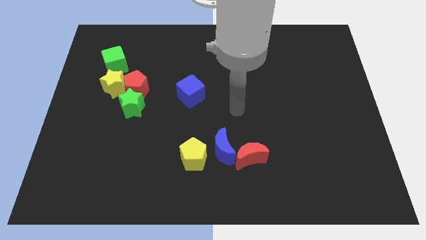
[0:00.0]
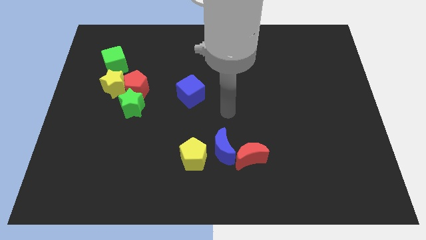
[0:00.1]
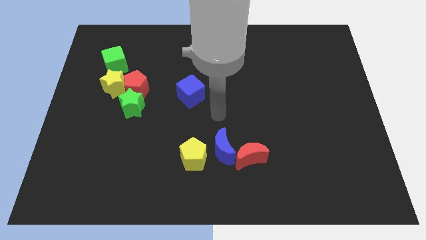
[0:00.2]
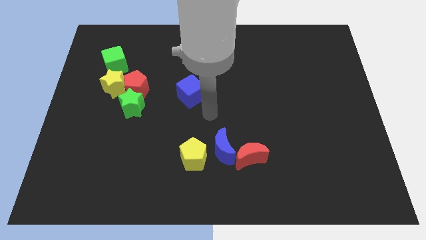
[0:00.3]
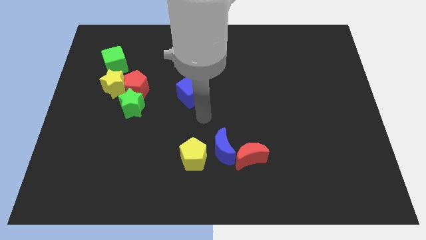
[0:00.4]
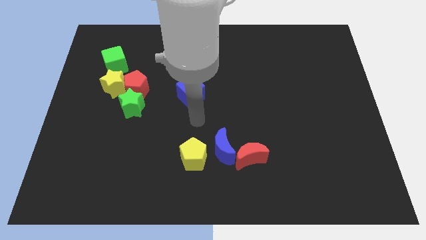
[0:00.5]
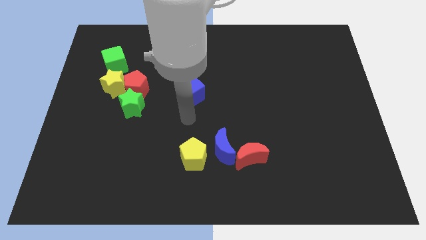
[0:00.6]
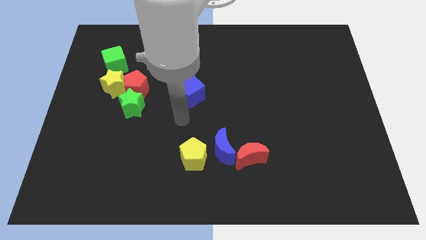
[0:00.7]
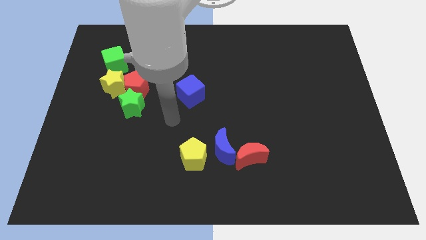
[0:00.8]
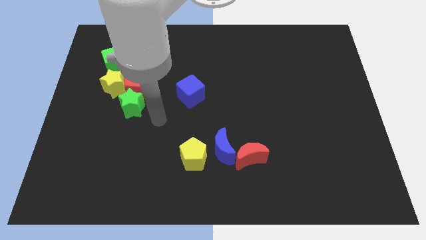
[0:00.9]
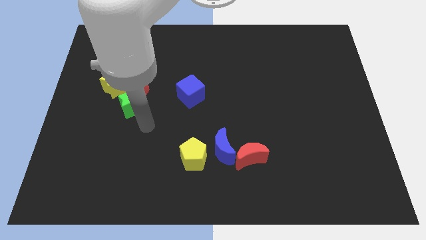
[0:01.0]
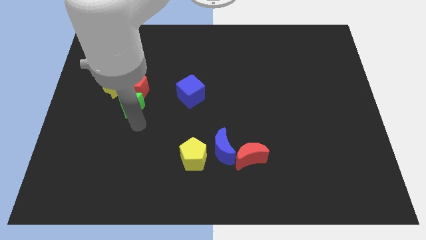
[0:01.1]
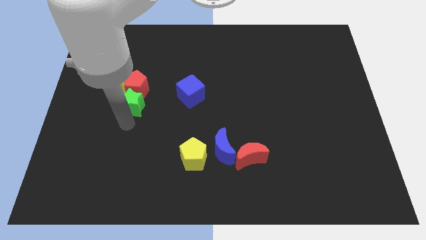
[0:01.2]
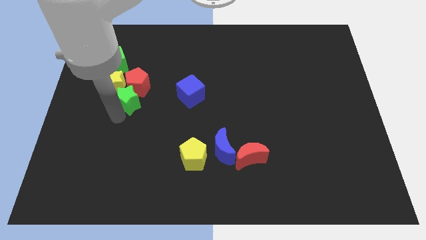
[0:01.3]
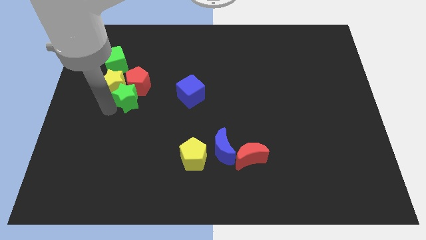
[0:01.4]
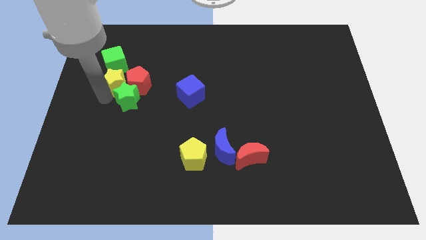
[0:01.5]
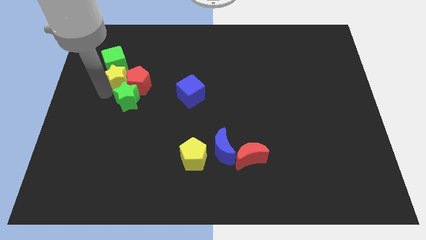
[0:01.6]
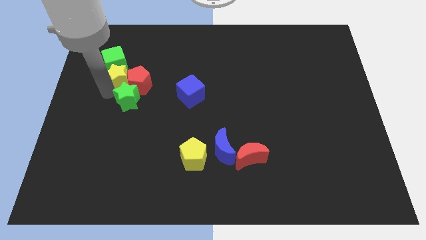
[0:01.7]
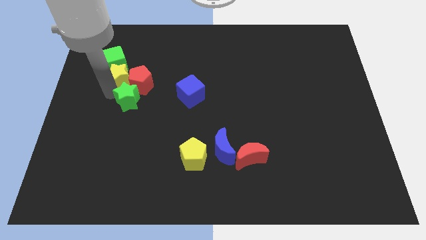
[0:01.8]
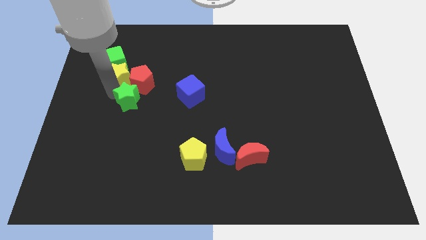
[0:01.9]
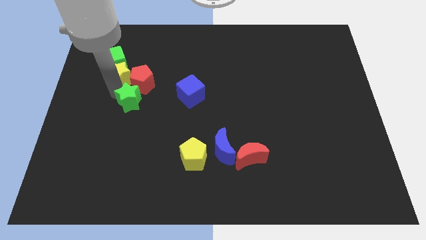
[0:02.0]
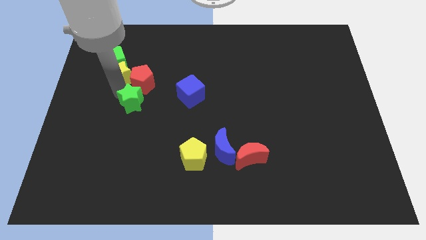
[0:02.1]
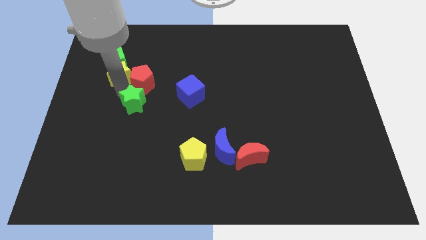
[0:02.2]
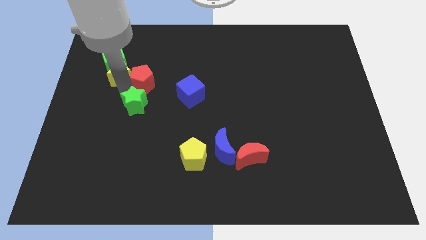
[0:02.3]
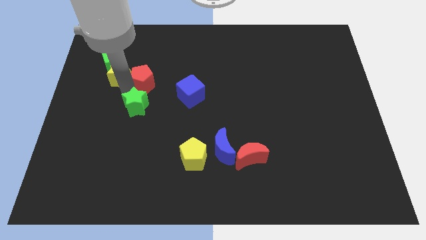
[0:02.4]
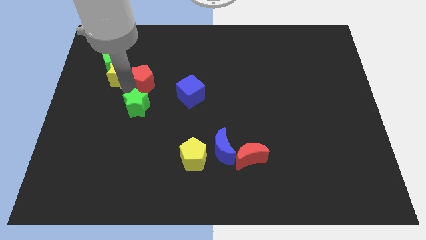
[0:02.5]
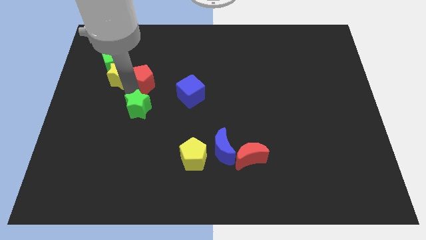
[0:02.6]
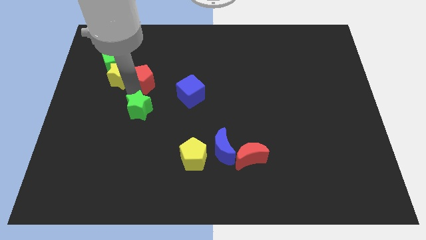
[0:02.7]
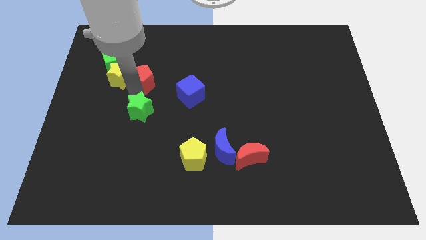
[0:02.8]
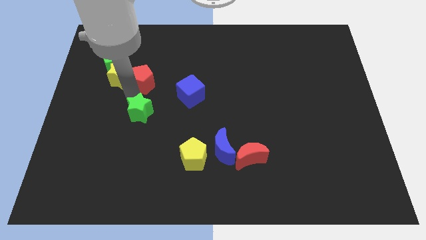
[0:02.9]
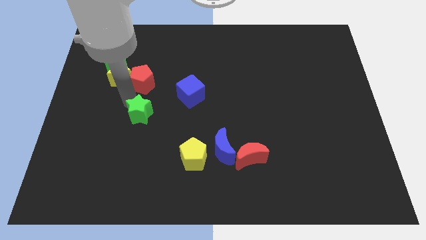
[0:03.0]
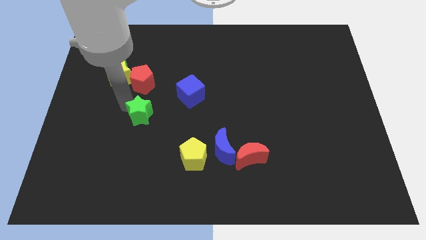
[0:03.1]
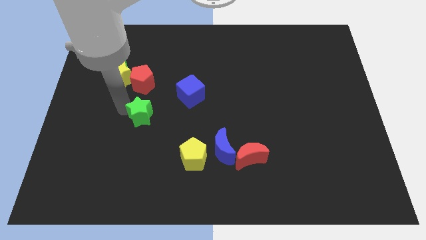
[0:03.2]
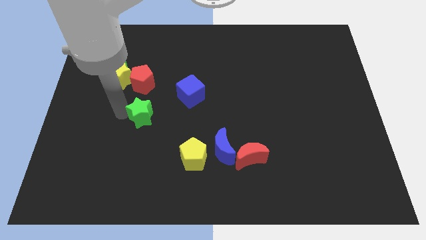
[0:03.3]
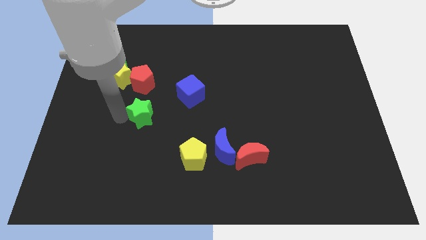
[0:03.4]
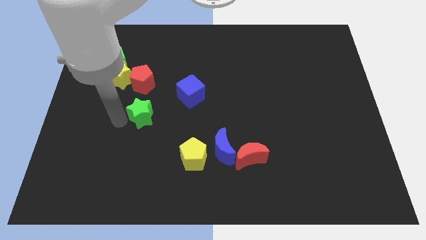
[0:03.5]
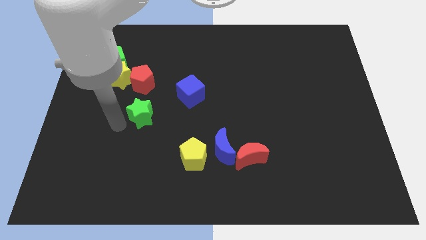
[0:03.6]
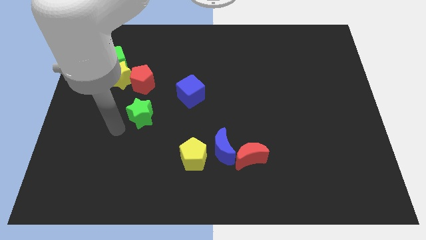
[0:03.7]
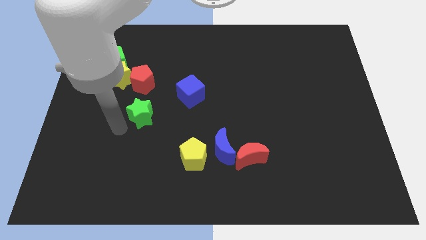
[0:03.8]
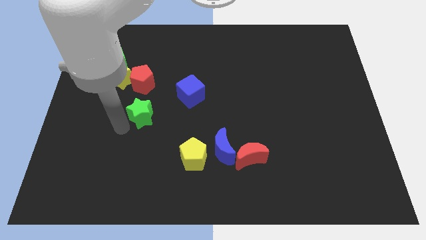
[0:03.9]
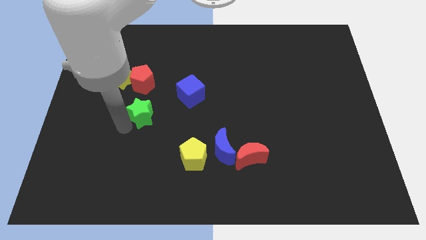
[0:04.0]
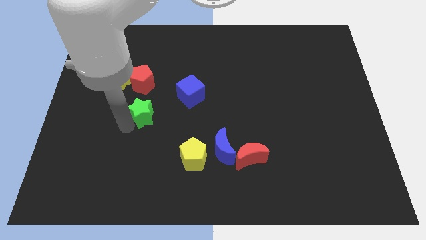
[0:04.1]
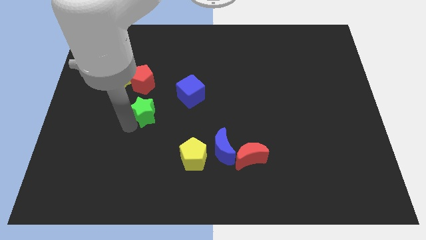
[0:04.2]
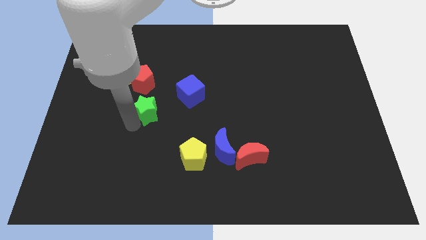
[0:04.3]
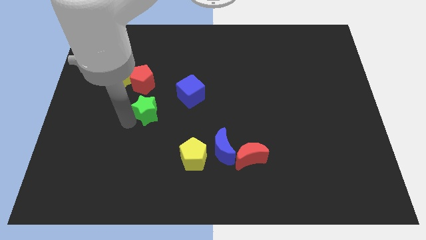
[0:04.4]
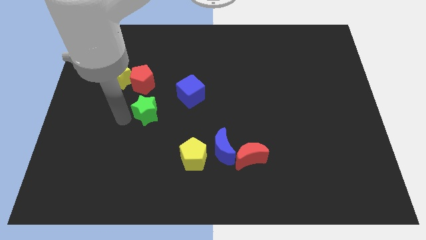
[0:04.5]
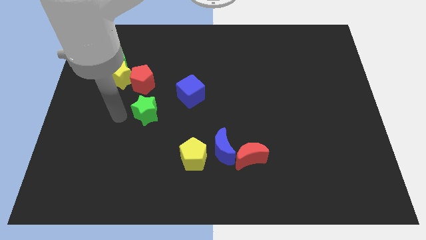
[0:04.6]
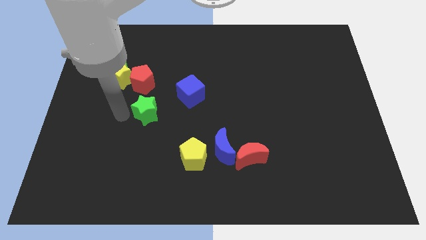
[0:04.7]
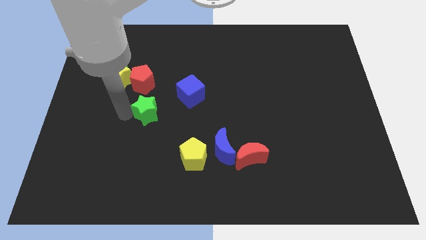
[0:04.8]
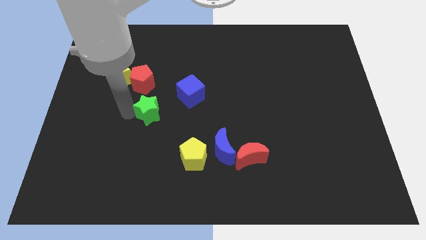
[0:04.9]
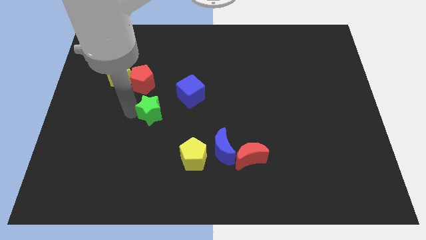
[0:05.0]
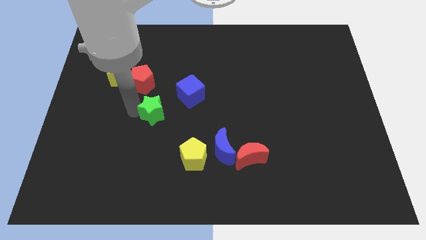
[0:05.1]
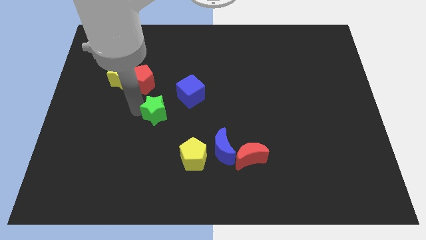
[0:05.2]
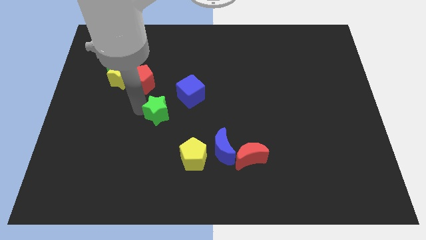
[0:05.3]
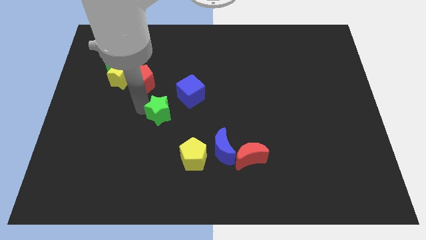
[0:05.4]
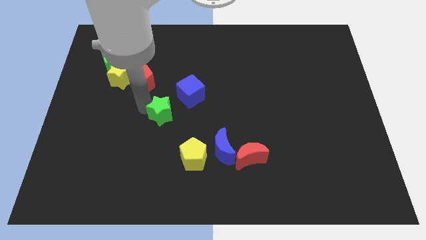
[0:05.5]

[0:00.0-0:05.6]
push the green star to the center of the board
